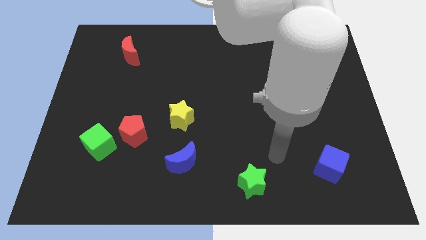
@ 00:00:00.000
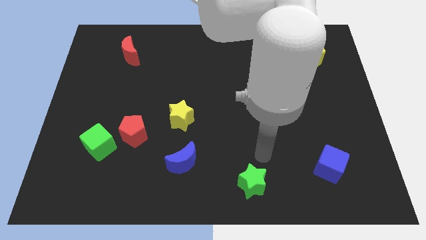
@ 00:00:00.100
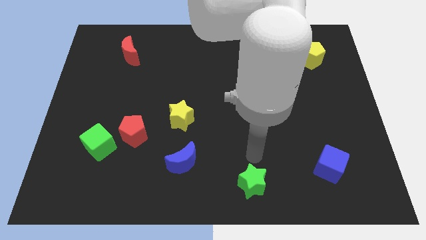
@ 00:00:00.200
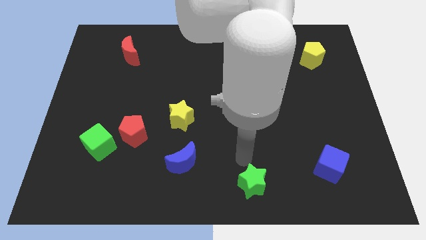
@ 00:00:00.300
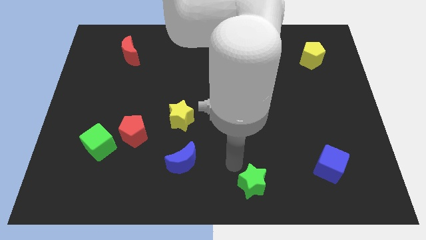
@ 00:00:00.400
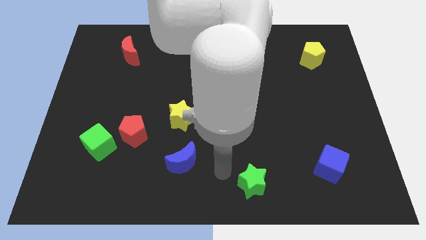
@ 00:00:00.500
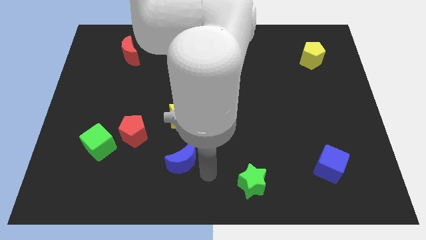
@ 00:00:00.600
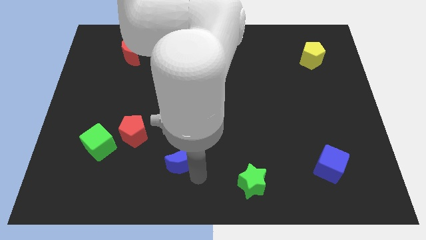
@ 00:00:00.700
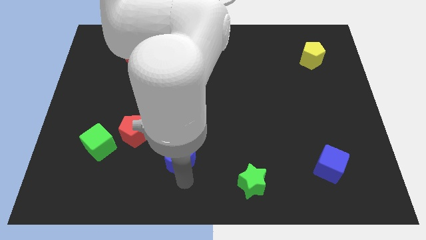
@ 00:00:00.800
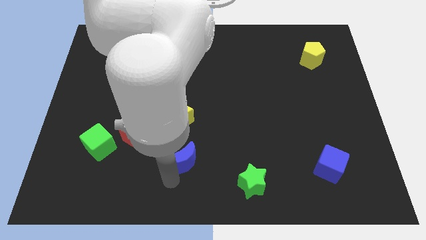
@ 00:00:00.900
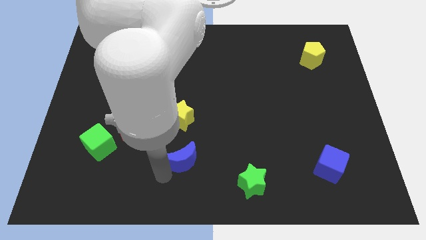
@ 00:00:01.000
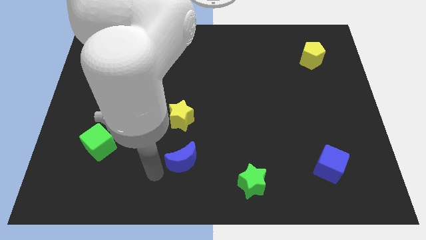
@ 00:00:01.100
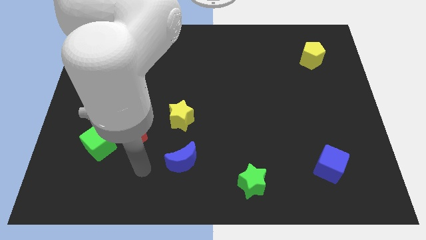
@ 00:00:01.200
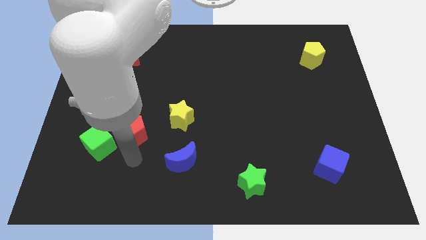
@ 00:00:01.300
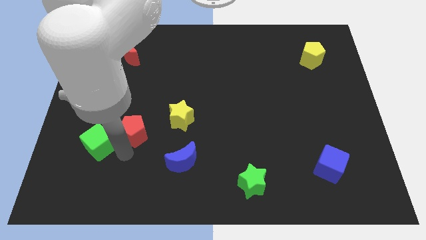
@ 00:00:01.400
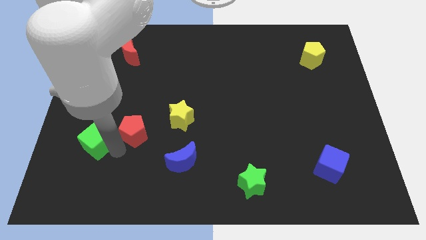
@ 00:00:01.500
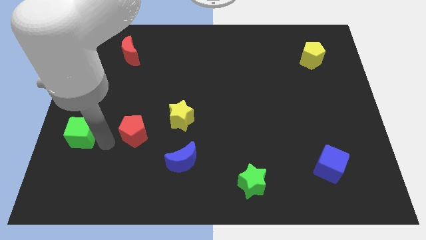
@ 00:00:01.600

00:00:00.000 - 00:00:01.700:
pull the red pentagon apart from the green cube

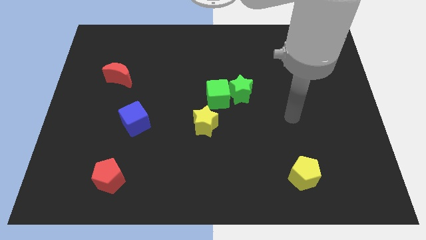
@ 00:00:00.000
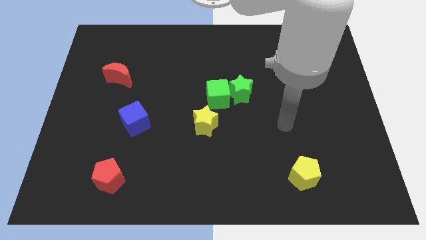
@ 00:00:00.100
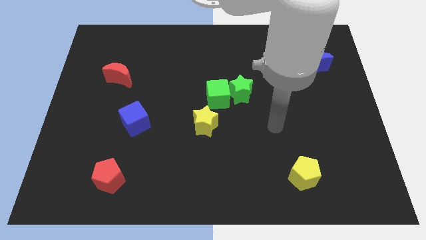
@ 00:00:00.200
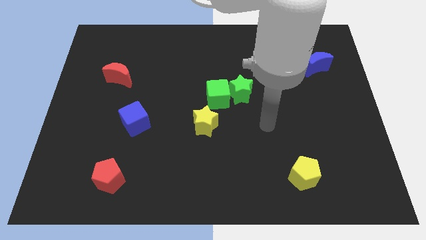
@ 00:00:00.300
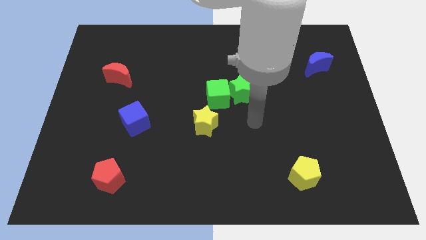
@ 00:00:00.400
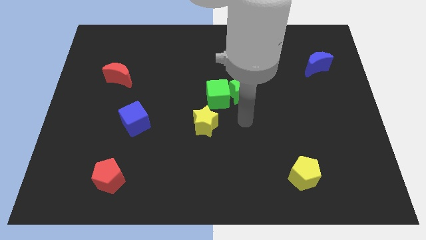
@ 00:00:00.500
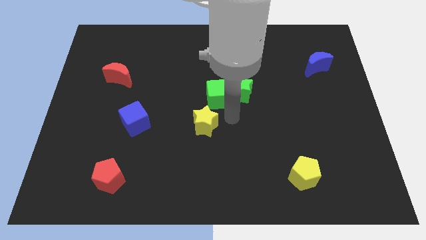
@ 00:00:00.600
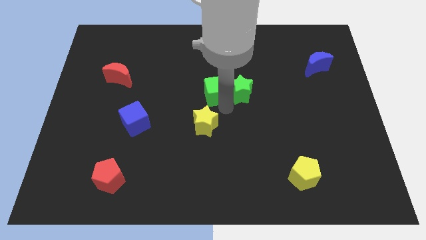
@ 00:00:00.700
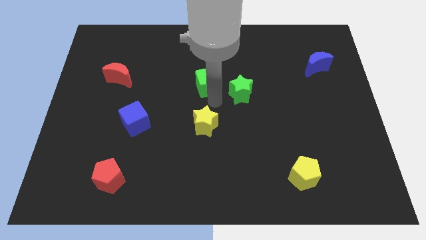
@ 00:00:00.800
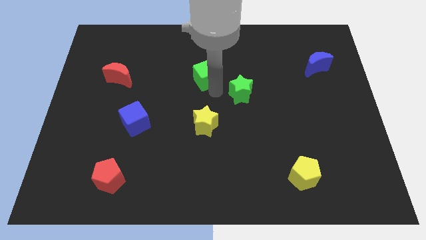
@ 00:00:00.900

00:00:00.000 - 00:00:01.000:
pull the green star apart from the green cube

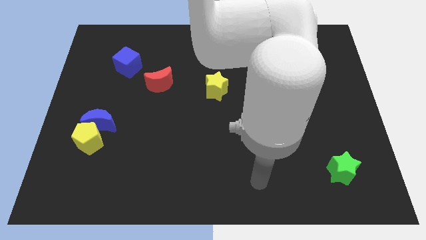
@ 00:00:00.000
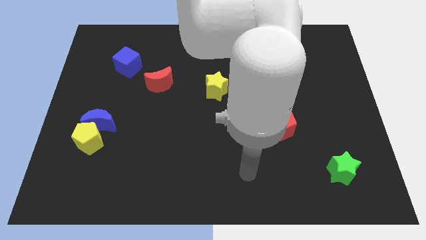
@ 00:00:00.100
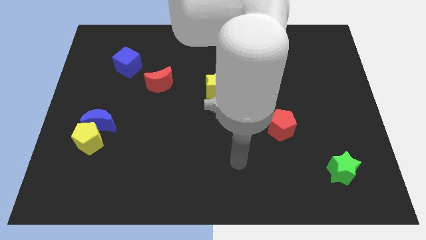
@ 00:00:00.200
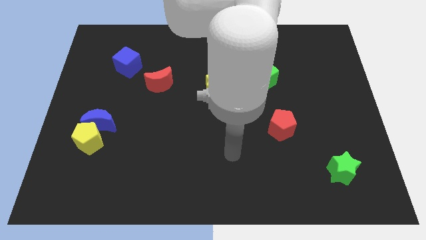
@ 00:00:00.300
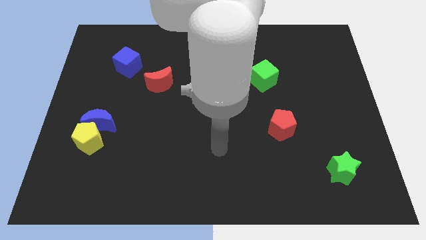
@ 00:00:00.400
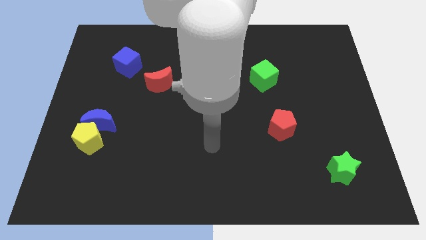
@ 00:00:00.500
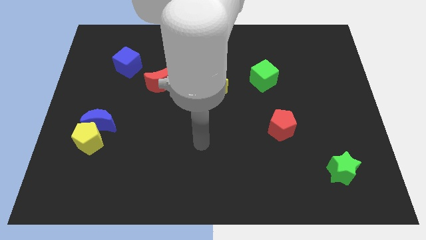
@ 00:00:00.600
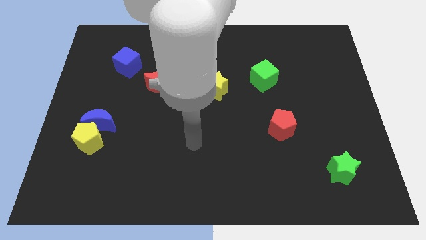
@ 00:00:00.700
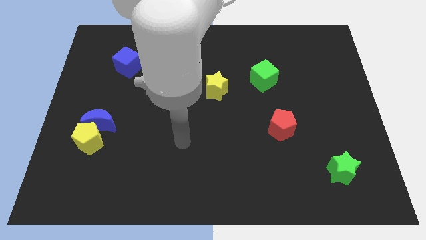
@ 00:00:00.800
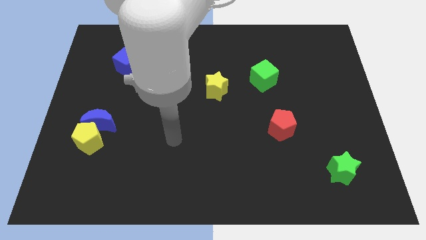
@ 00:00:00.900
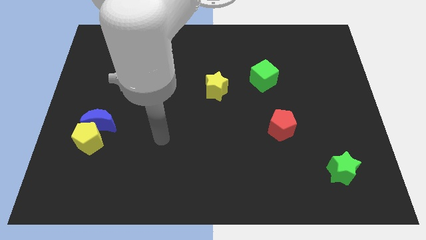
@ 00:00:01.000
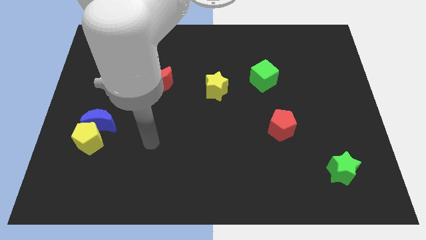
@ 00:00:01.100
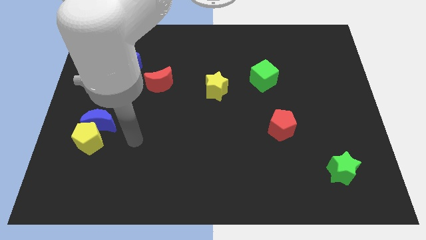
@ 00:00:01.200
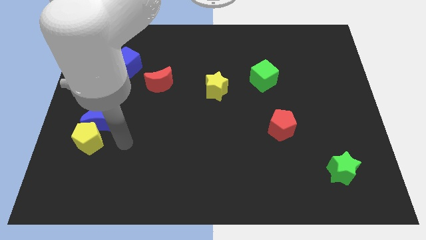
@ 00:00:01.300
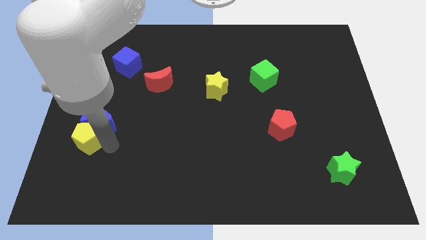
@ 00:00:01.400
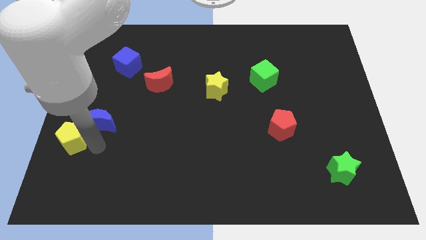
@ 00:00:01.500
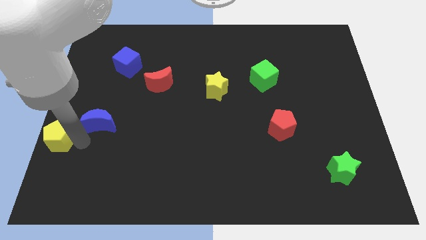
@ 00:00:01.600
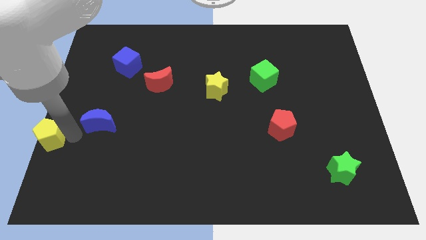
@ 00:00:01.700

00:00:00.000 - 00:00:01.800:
separate the blue moon from the yellow pentagon

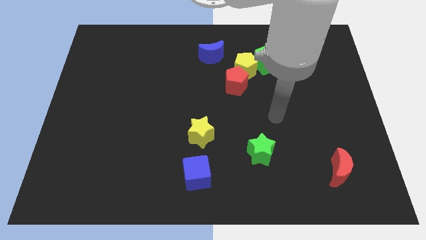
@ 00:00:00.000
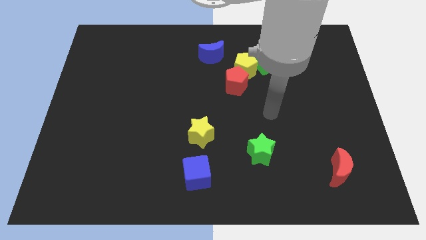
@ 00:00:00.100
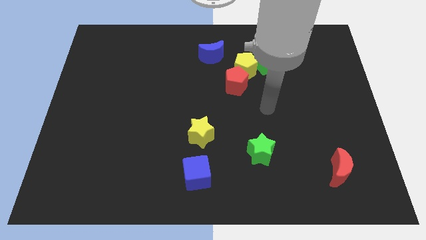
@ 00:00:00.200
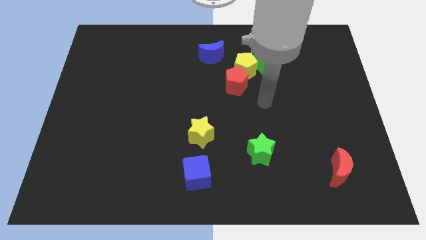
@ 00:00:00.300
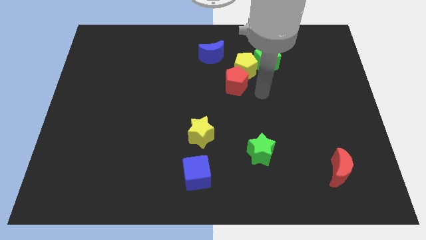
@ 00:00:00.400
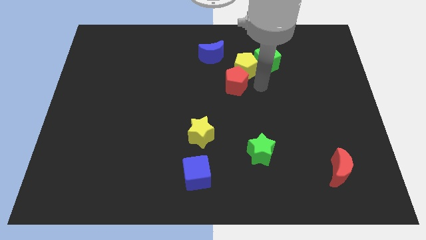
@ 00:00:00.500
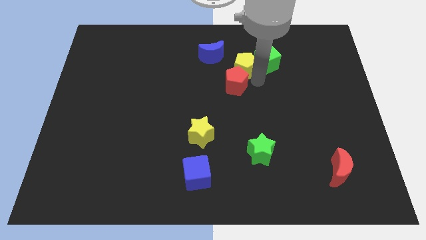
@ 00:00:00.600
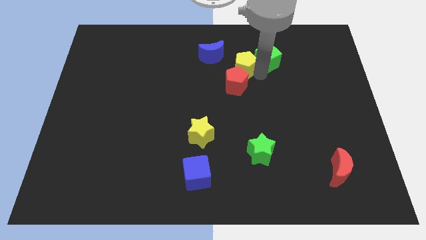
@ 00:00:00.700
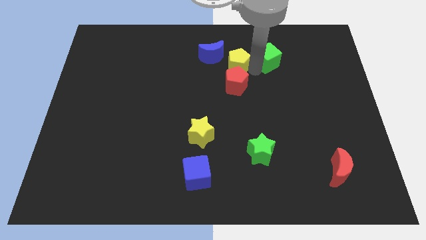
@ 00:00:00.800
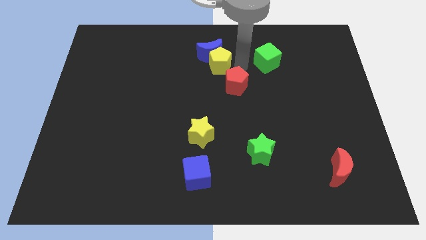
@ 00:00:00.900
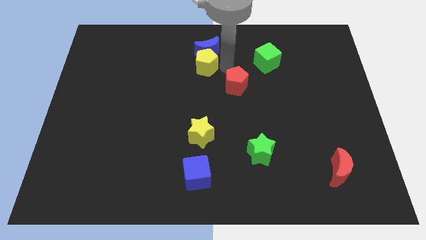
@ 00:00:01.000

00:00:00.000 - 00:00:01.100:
separate the red pentagon from the yellow pentagon

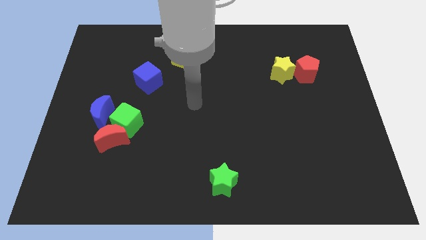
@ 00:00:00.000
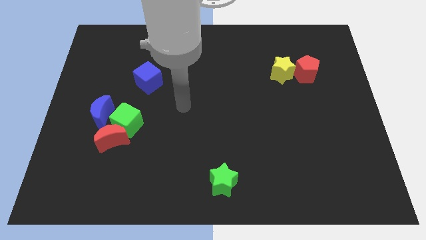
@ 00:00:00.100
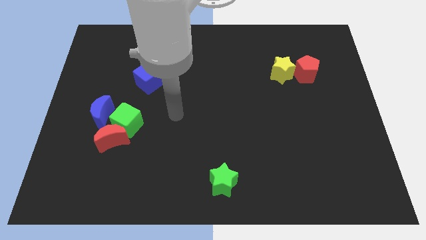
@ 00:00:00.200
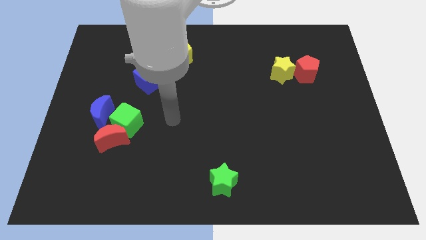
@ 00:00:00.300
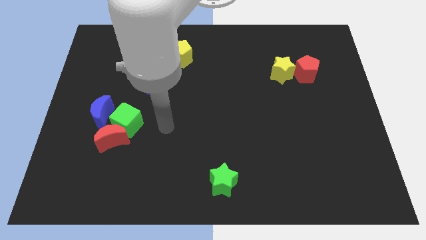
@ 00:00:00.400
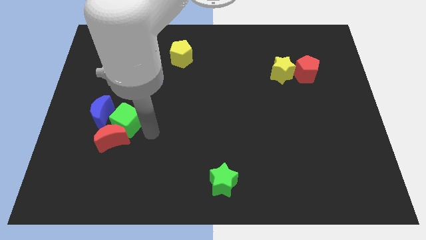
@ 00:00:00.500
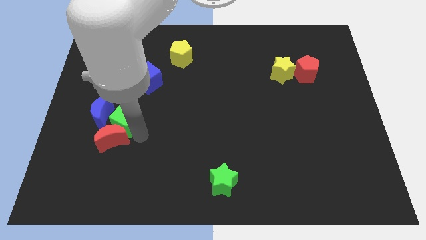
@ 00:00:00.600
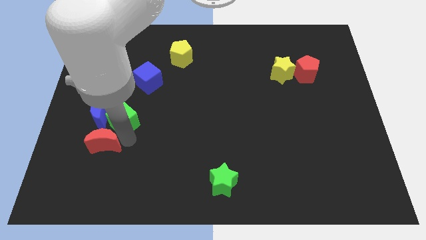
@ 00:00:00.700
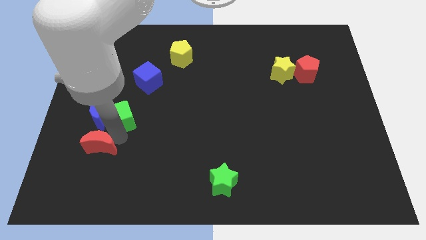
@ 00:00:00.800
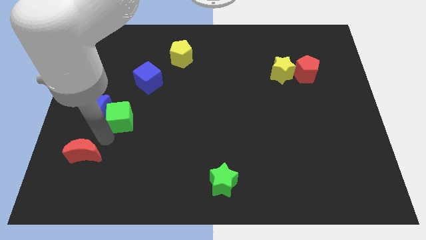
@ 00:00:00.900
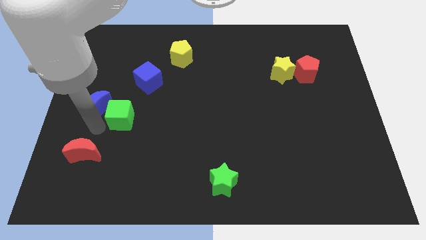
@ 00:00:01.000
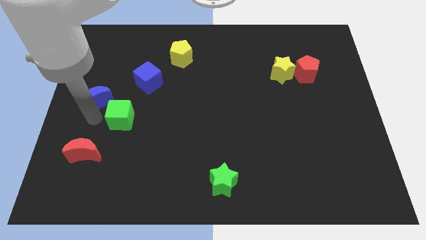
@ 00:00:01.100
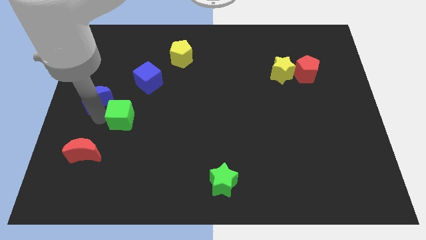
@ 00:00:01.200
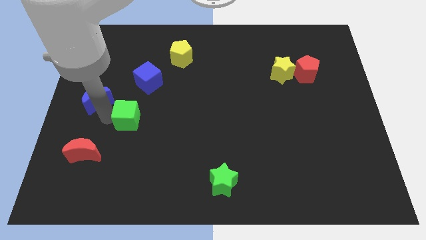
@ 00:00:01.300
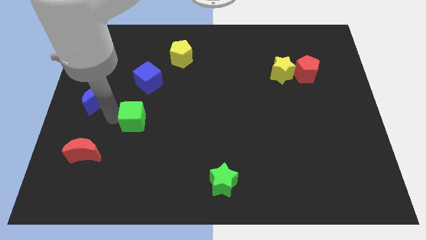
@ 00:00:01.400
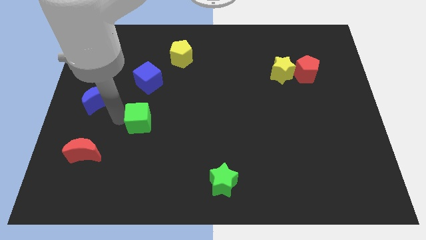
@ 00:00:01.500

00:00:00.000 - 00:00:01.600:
pull the green cube apart from the red moon and blue moon

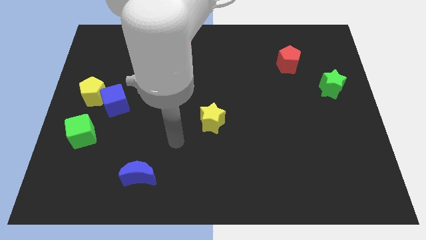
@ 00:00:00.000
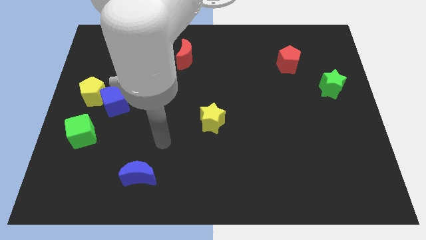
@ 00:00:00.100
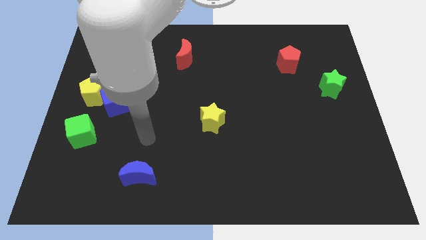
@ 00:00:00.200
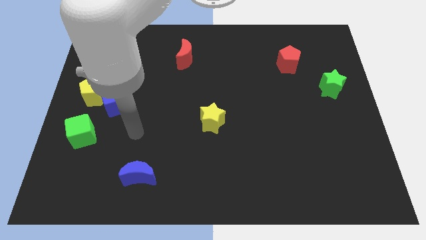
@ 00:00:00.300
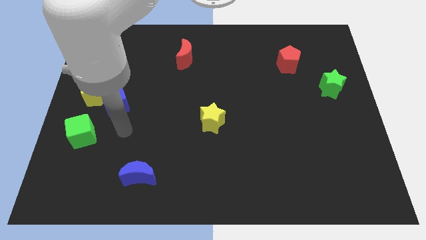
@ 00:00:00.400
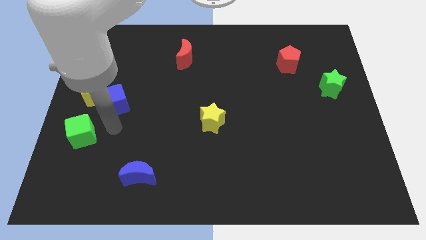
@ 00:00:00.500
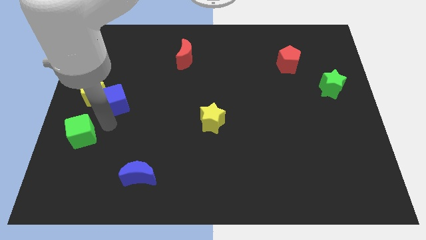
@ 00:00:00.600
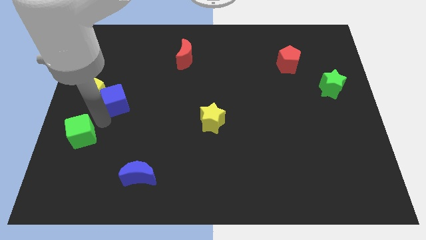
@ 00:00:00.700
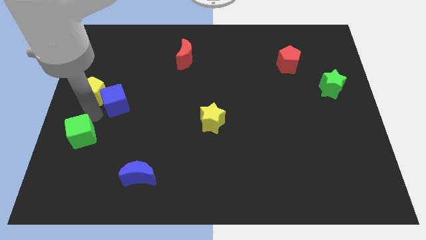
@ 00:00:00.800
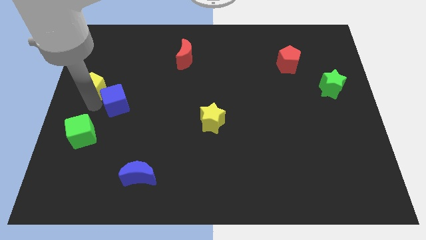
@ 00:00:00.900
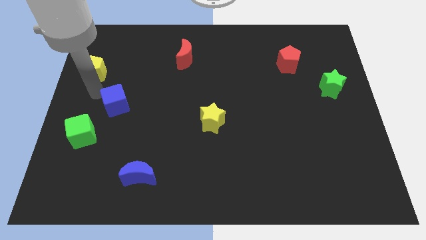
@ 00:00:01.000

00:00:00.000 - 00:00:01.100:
pull the blue cube apart from the yellow pentagon

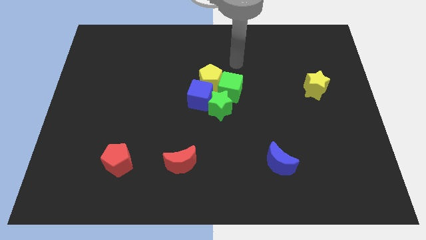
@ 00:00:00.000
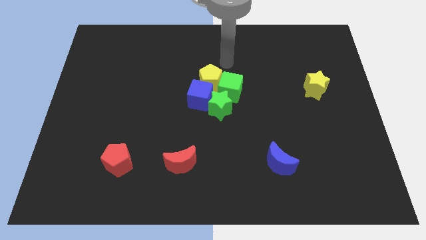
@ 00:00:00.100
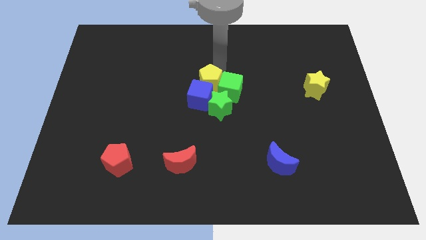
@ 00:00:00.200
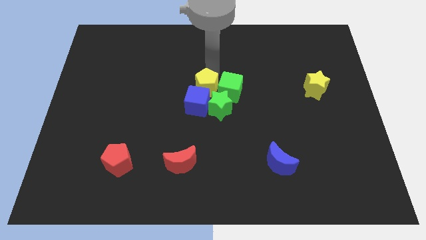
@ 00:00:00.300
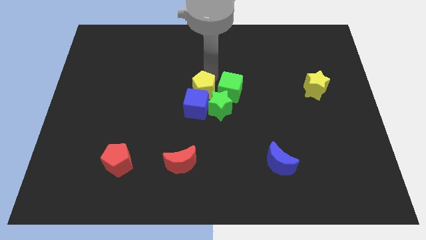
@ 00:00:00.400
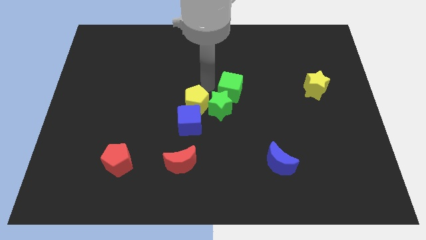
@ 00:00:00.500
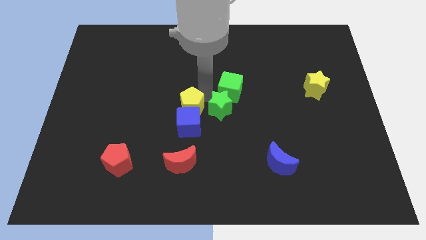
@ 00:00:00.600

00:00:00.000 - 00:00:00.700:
pull the green cube apart from the group of blocks

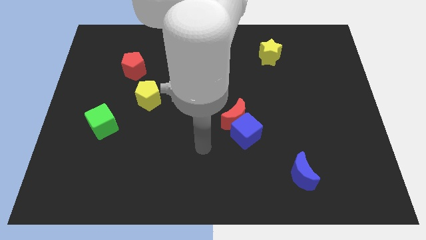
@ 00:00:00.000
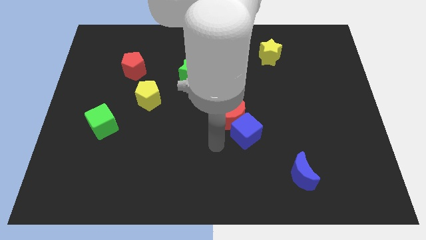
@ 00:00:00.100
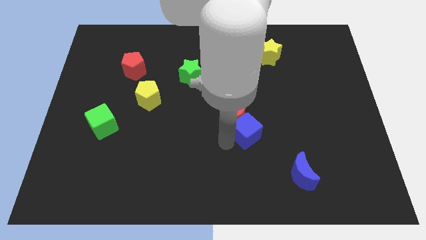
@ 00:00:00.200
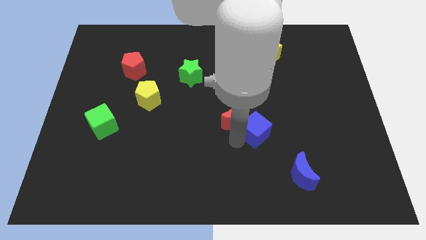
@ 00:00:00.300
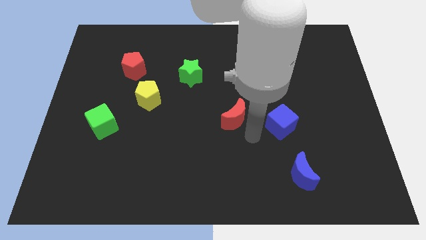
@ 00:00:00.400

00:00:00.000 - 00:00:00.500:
move the red moon away from the blue cube
